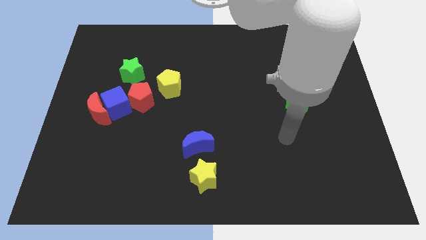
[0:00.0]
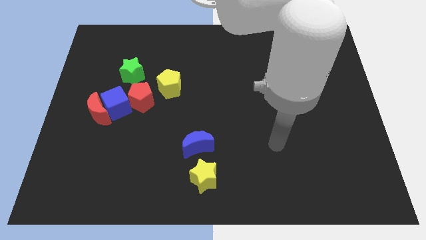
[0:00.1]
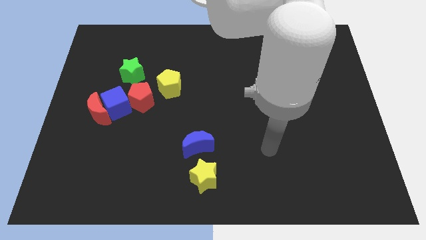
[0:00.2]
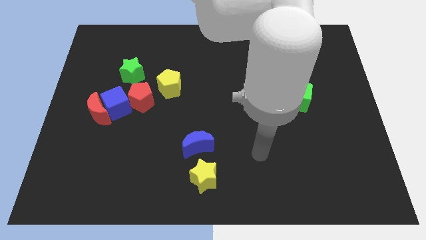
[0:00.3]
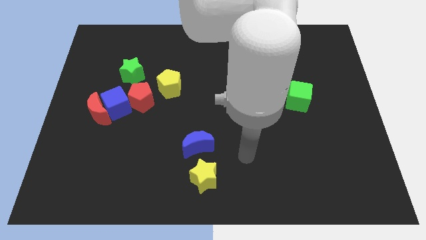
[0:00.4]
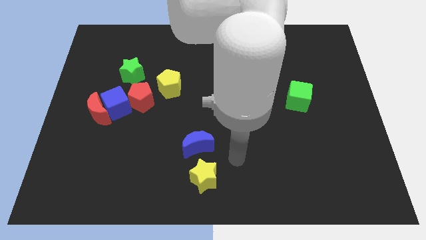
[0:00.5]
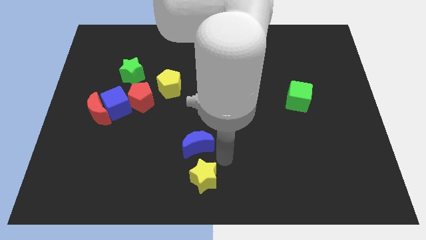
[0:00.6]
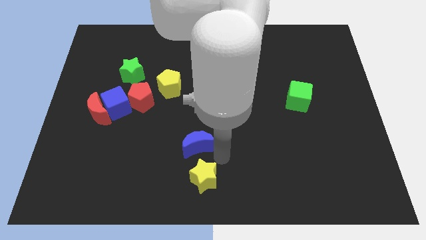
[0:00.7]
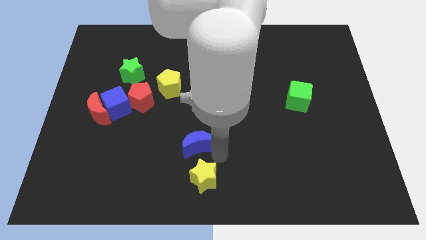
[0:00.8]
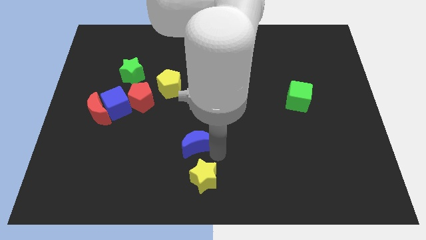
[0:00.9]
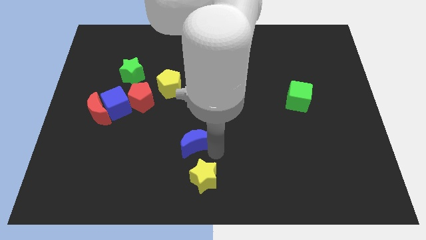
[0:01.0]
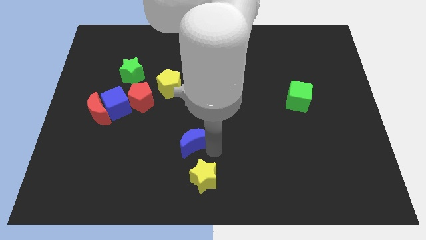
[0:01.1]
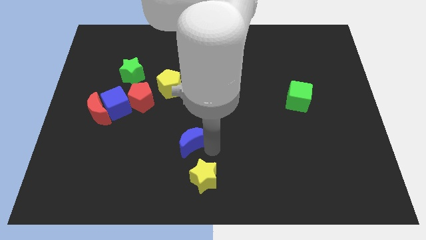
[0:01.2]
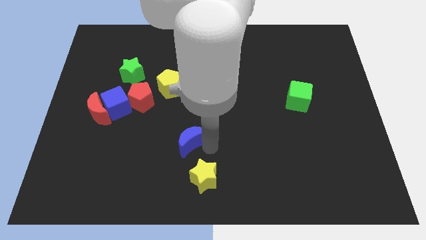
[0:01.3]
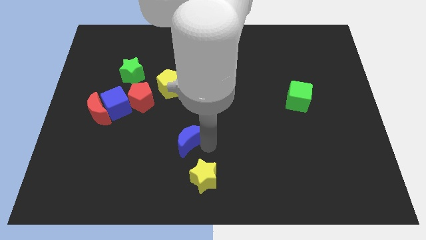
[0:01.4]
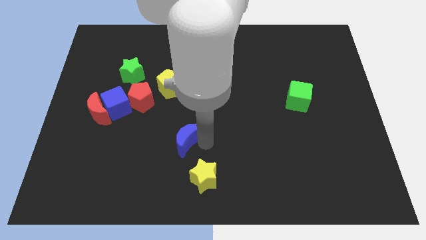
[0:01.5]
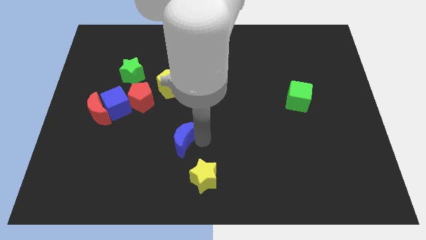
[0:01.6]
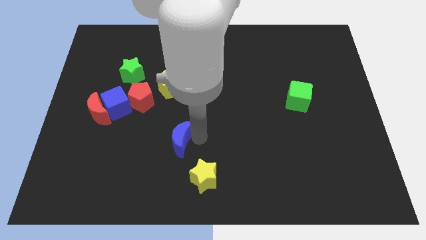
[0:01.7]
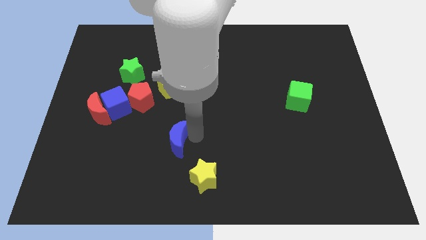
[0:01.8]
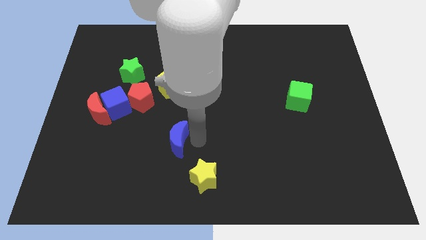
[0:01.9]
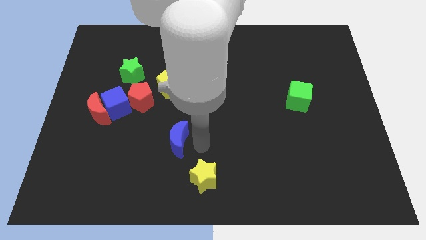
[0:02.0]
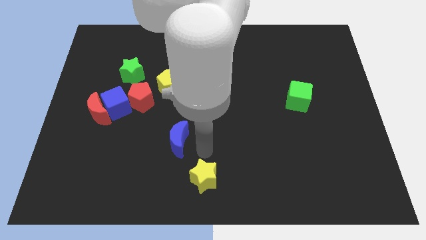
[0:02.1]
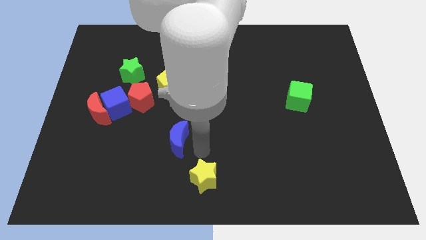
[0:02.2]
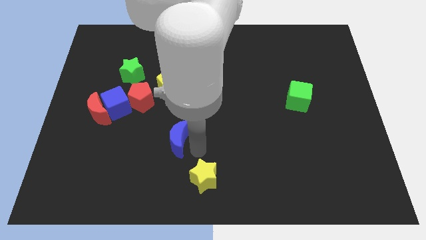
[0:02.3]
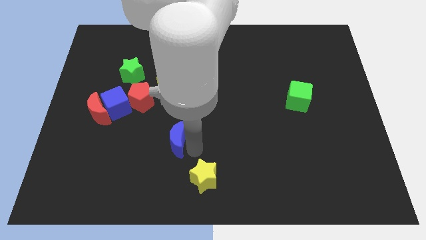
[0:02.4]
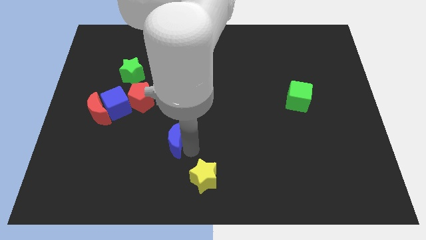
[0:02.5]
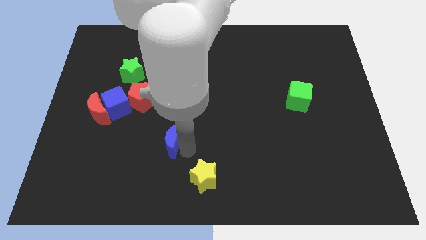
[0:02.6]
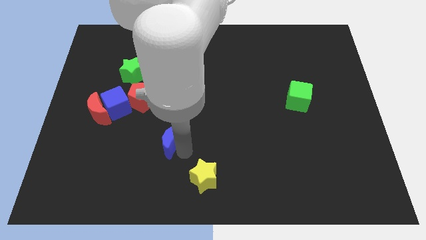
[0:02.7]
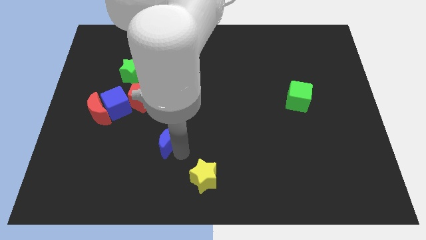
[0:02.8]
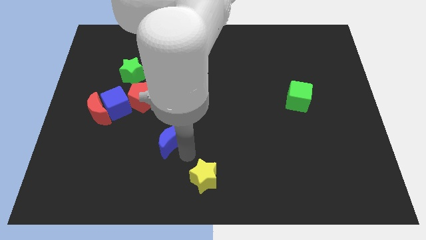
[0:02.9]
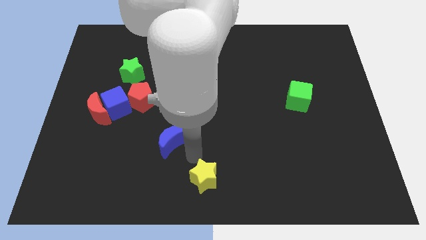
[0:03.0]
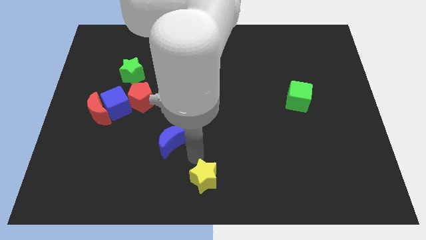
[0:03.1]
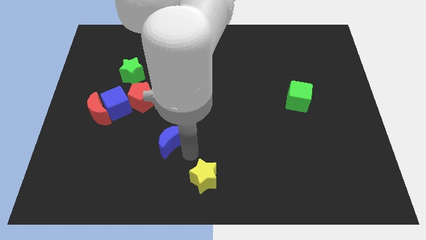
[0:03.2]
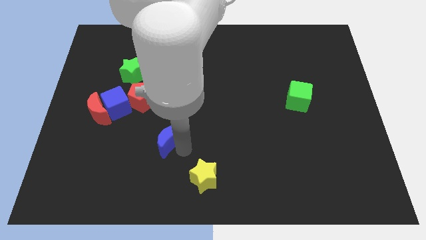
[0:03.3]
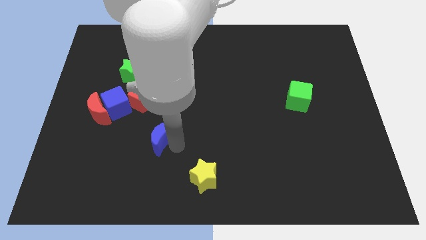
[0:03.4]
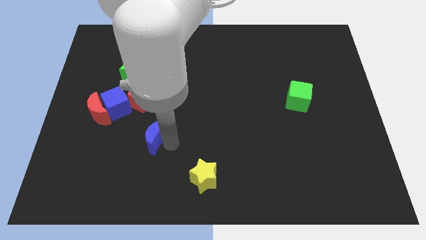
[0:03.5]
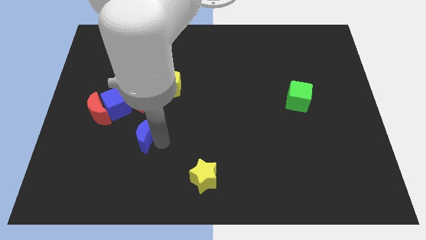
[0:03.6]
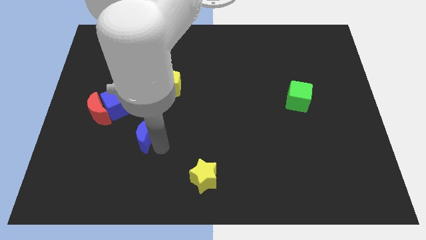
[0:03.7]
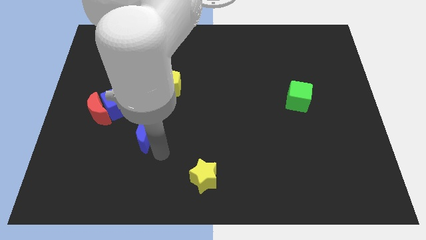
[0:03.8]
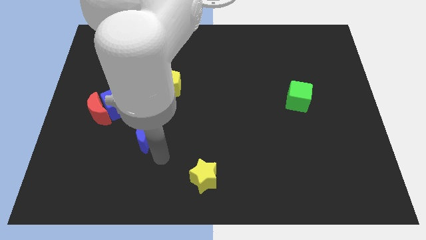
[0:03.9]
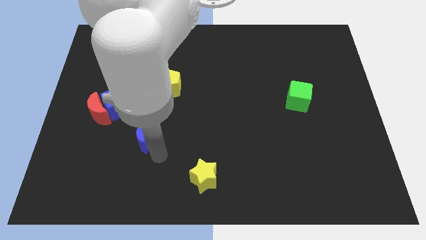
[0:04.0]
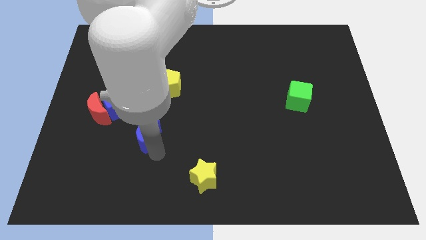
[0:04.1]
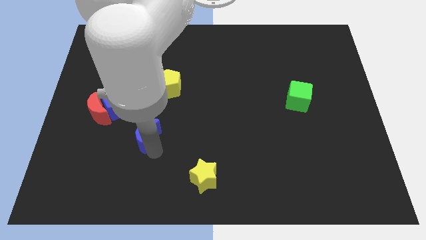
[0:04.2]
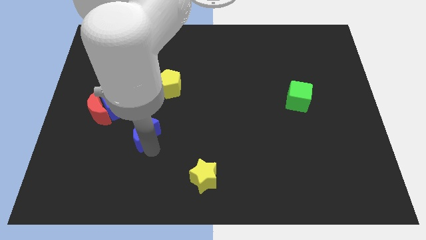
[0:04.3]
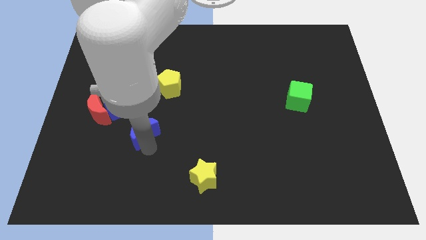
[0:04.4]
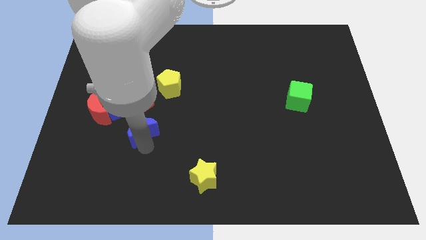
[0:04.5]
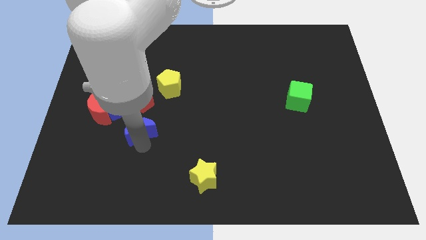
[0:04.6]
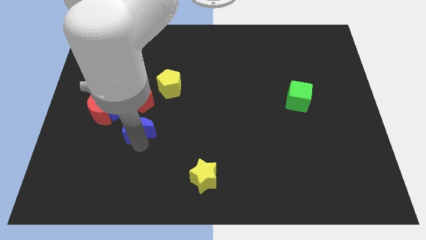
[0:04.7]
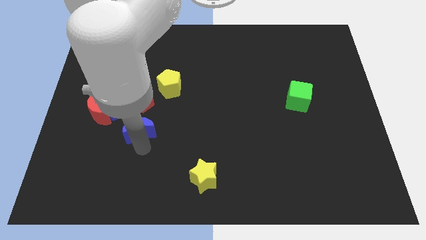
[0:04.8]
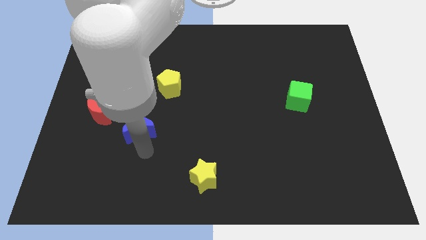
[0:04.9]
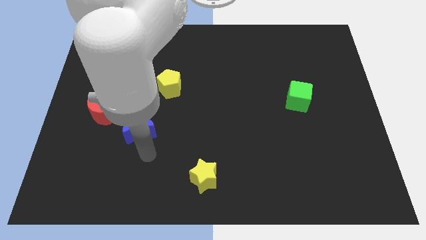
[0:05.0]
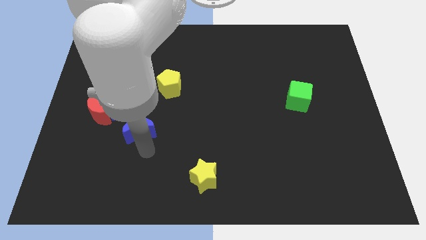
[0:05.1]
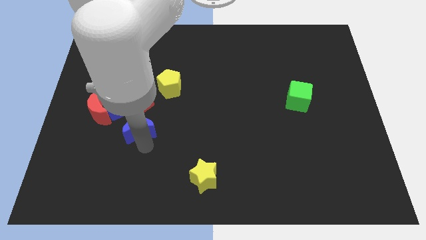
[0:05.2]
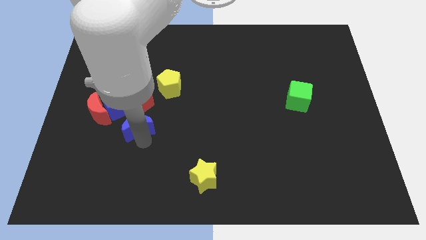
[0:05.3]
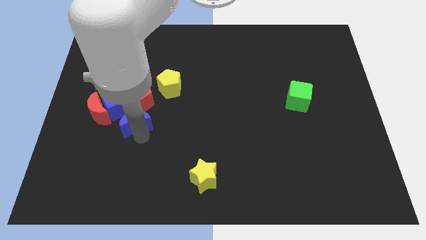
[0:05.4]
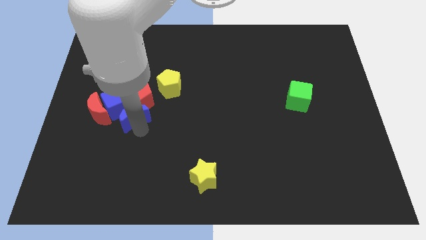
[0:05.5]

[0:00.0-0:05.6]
push the blue moon next to the blue cube

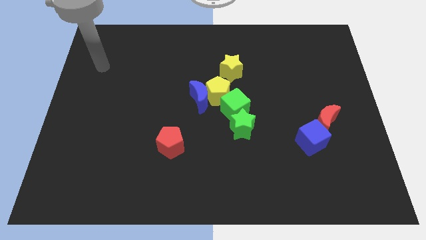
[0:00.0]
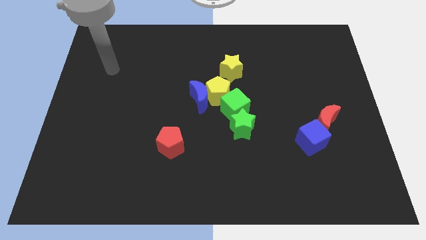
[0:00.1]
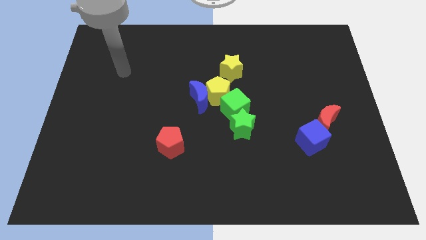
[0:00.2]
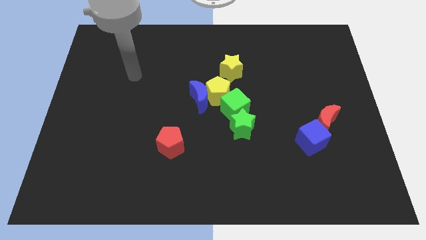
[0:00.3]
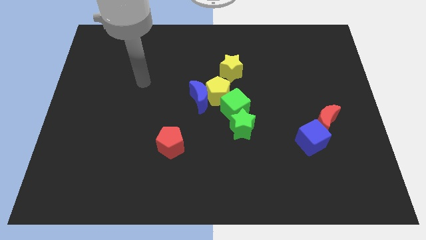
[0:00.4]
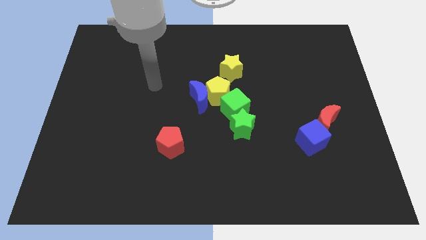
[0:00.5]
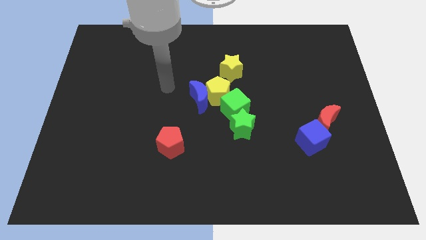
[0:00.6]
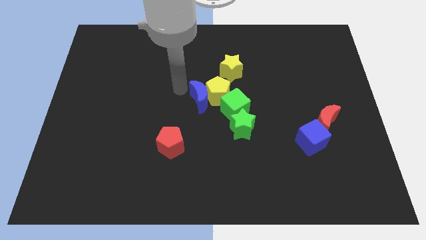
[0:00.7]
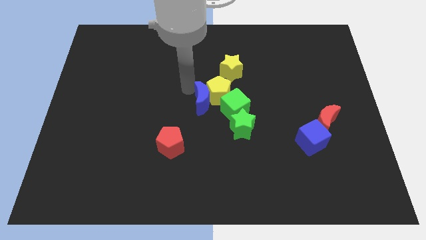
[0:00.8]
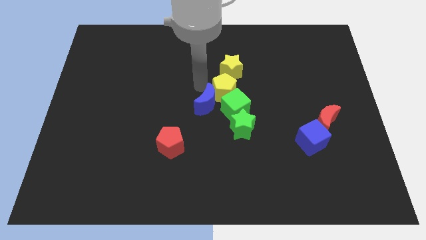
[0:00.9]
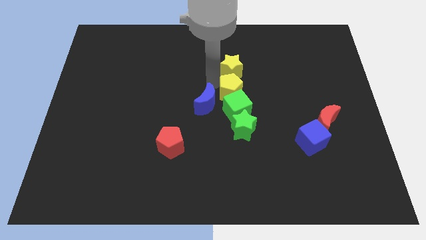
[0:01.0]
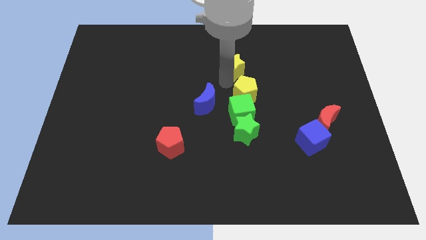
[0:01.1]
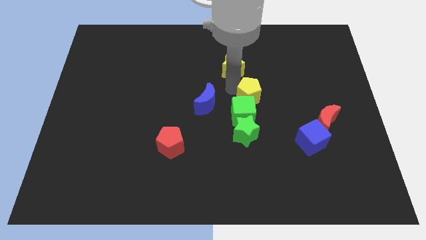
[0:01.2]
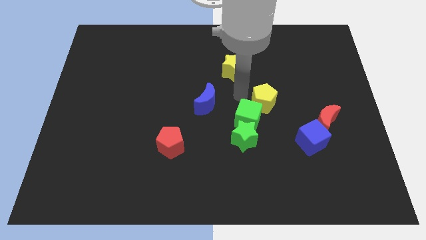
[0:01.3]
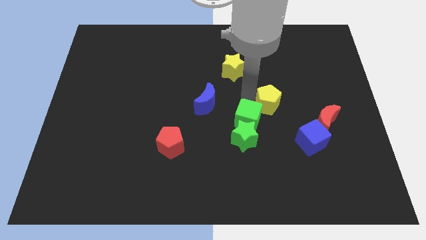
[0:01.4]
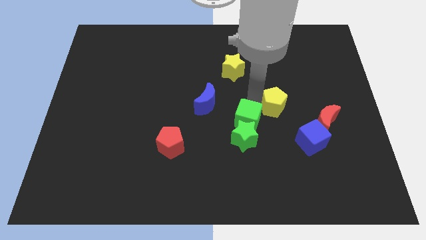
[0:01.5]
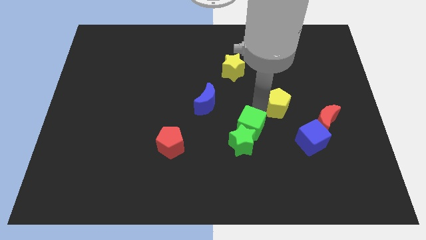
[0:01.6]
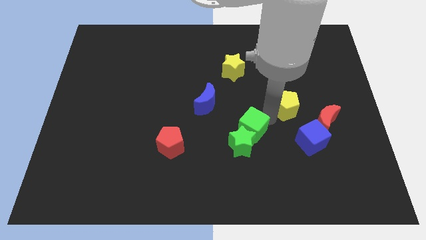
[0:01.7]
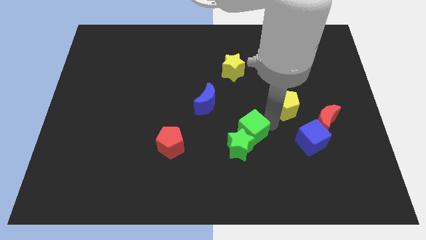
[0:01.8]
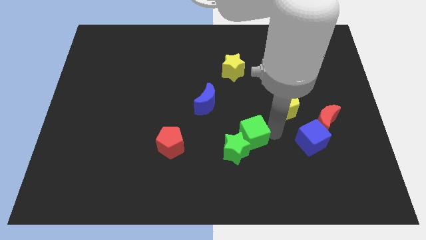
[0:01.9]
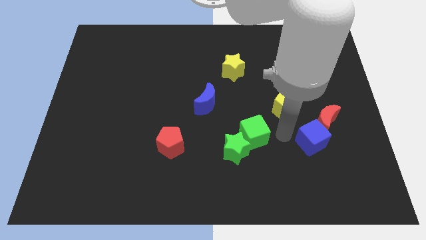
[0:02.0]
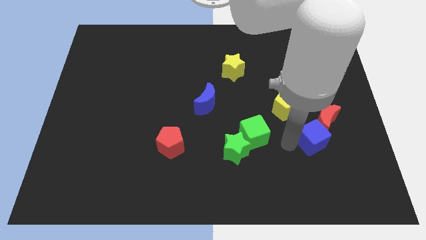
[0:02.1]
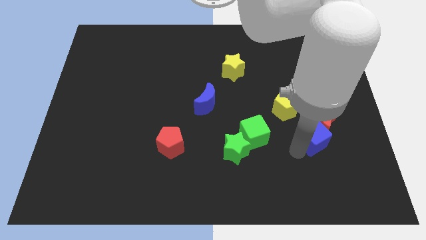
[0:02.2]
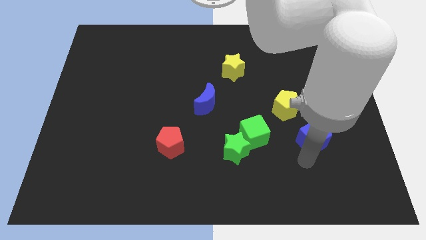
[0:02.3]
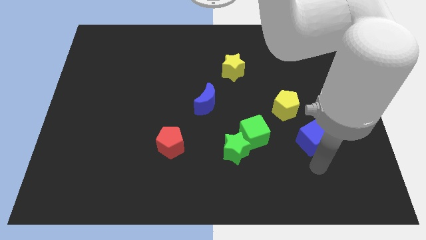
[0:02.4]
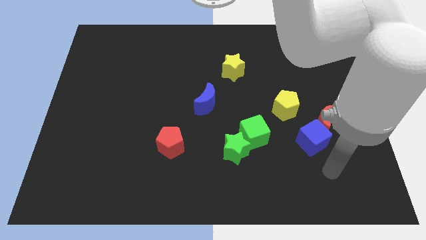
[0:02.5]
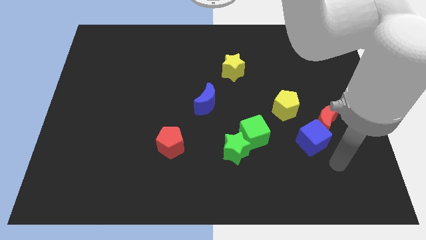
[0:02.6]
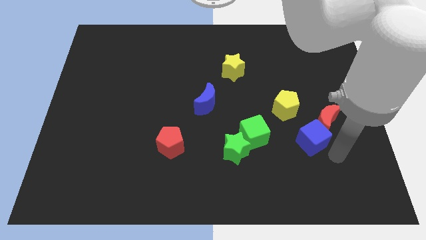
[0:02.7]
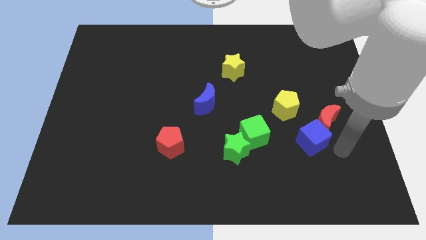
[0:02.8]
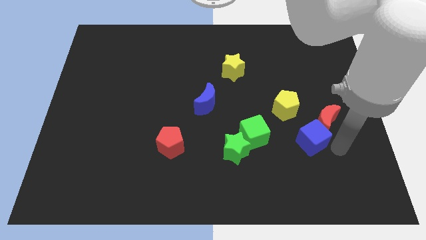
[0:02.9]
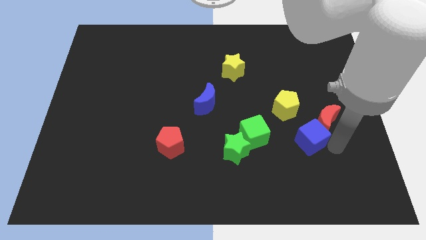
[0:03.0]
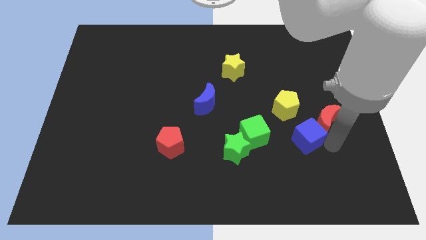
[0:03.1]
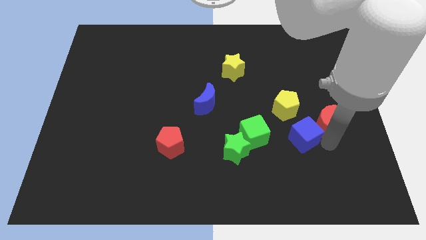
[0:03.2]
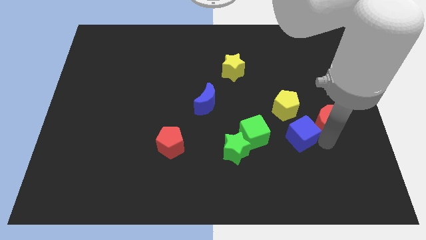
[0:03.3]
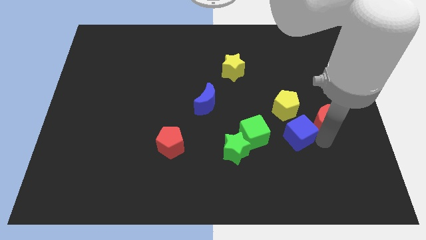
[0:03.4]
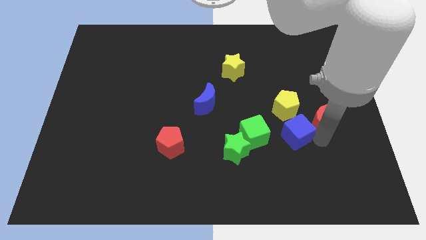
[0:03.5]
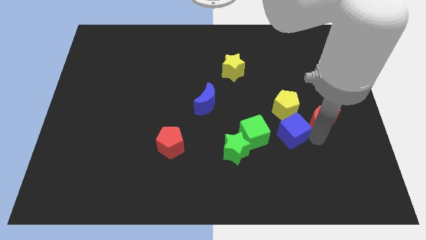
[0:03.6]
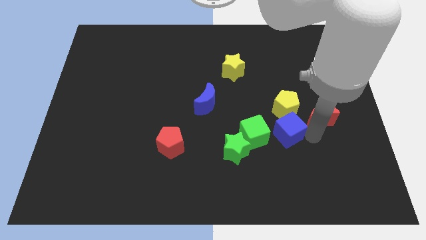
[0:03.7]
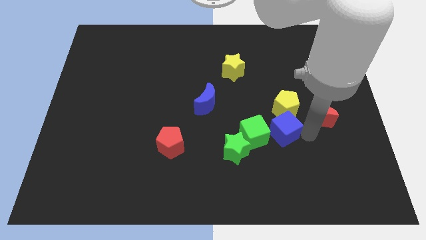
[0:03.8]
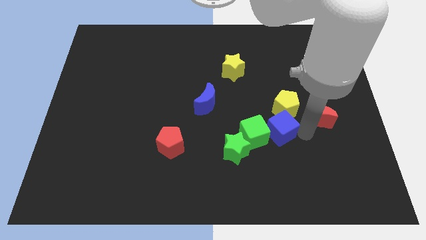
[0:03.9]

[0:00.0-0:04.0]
put the blue cube towards the green cube
